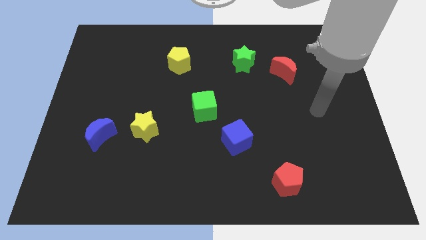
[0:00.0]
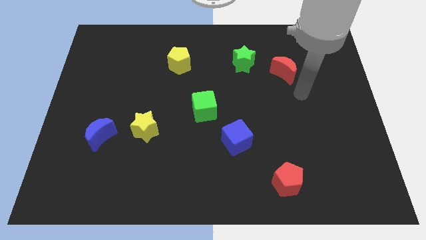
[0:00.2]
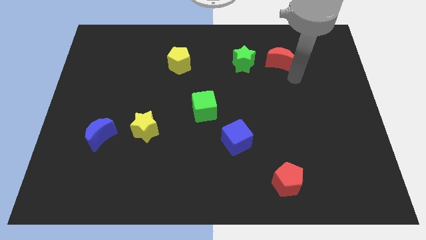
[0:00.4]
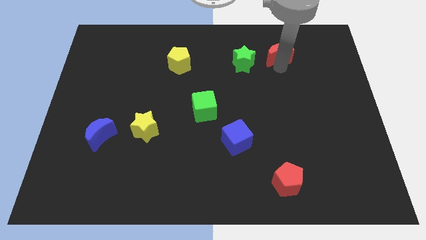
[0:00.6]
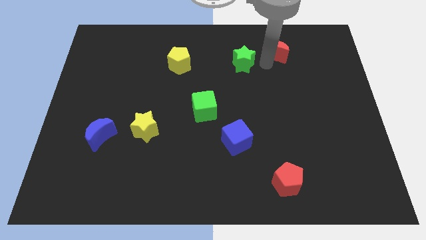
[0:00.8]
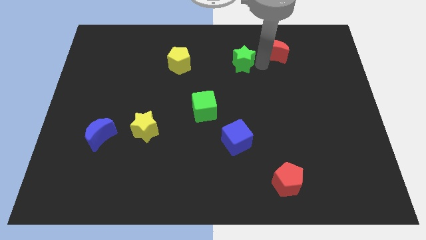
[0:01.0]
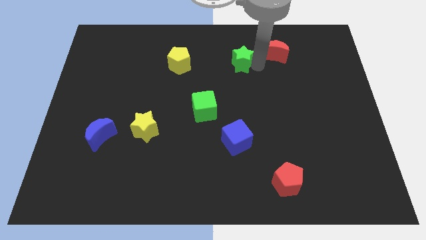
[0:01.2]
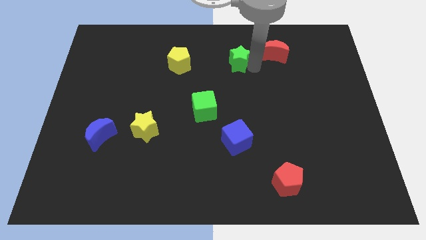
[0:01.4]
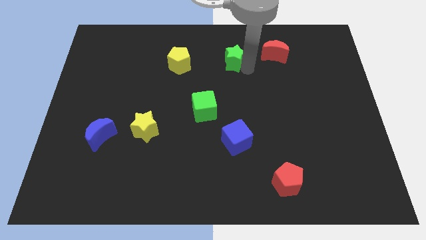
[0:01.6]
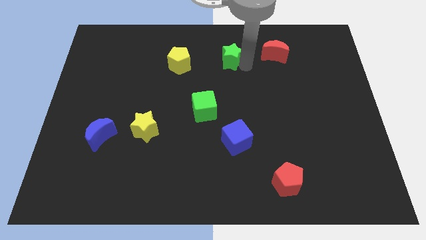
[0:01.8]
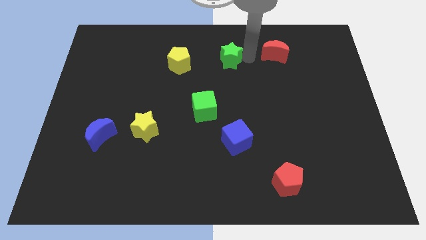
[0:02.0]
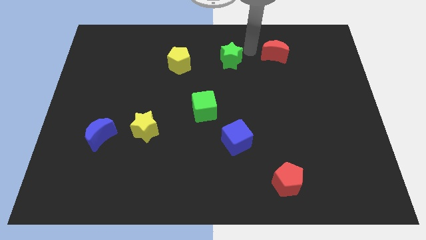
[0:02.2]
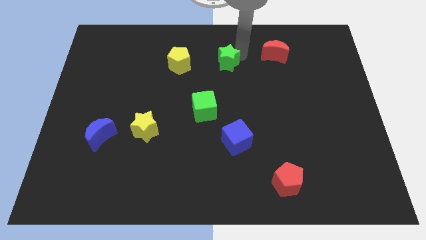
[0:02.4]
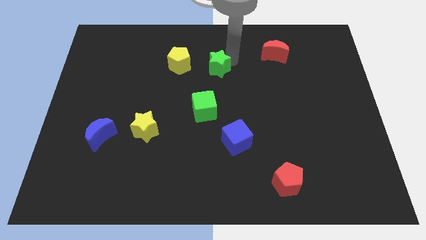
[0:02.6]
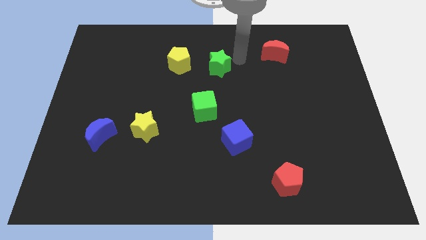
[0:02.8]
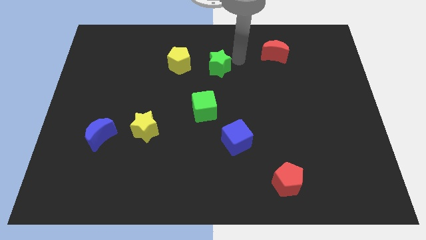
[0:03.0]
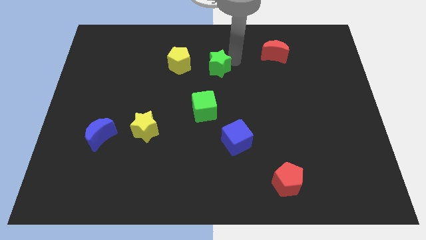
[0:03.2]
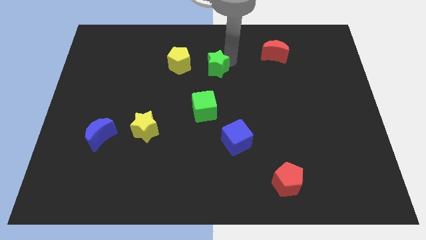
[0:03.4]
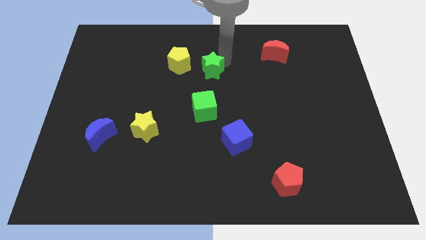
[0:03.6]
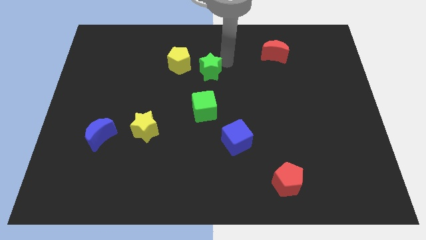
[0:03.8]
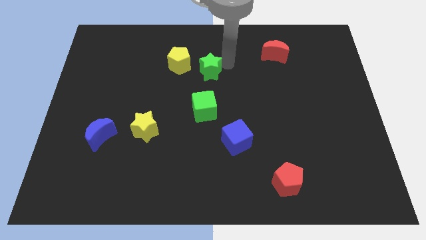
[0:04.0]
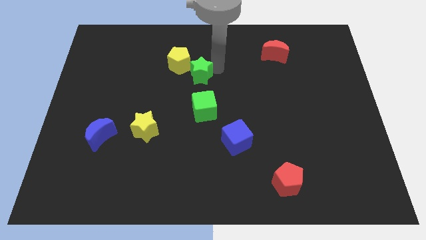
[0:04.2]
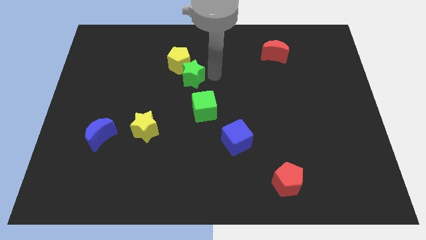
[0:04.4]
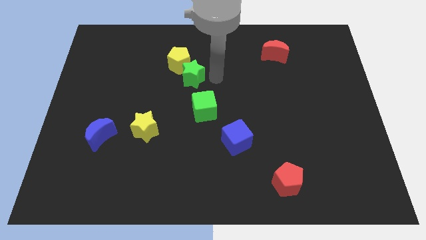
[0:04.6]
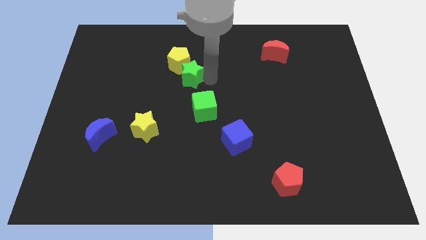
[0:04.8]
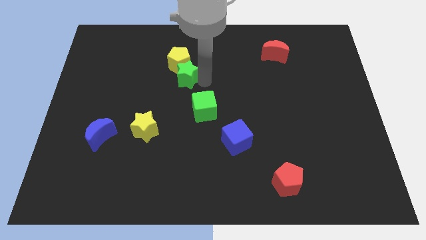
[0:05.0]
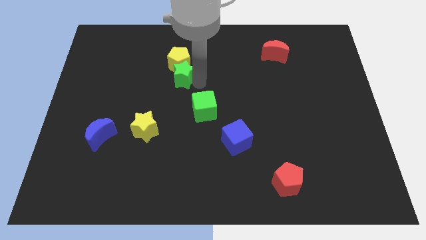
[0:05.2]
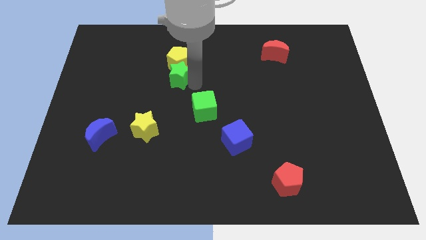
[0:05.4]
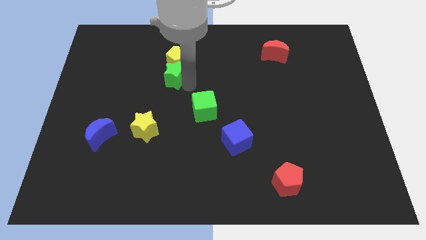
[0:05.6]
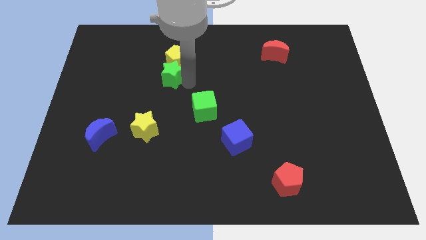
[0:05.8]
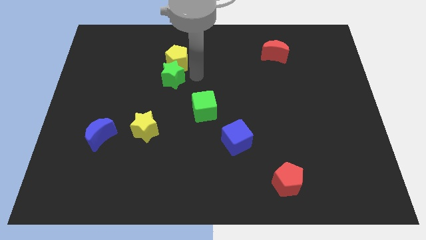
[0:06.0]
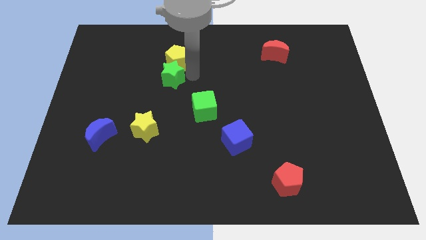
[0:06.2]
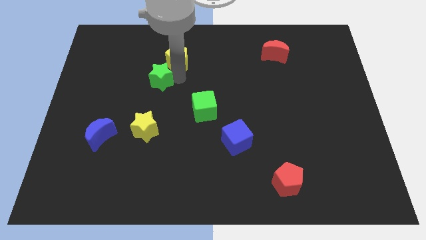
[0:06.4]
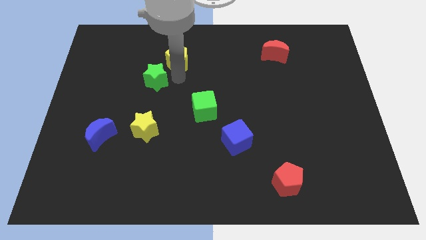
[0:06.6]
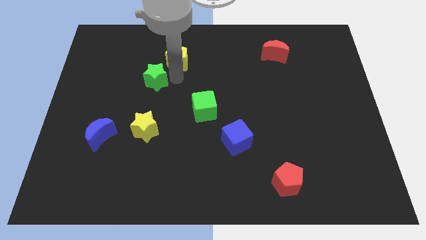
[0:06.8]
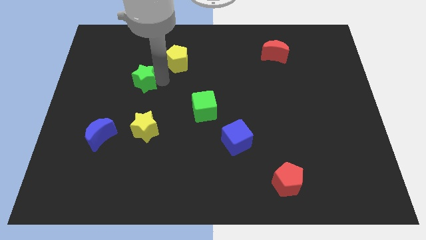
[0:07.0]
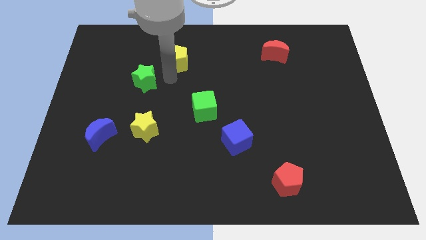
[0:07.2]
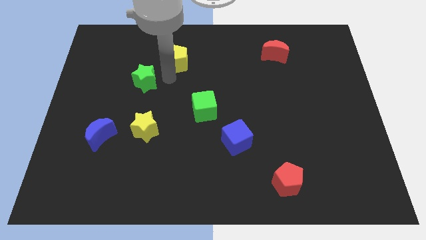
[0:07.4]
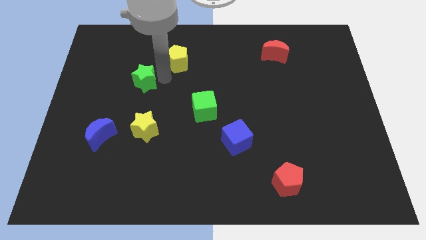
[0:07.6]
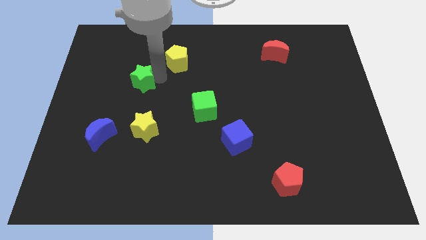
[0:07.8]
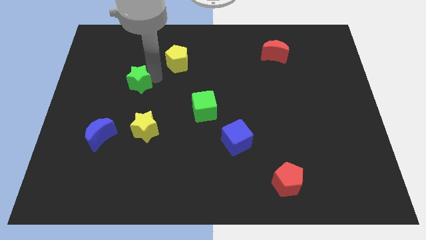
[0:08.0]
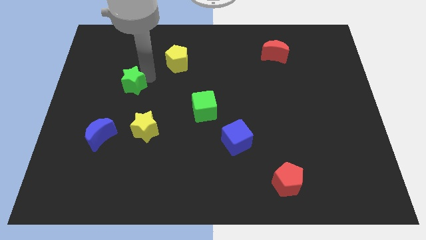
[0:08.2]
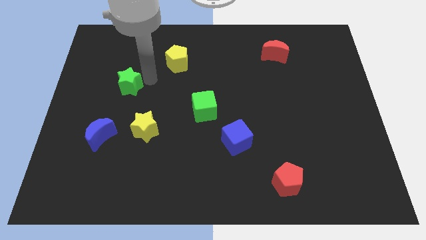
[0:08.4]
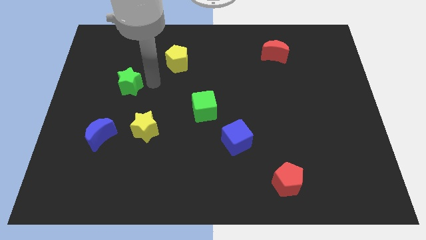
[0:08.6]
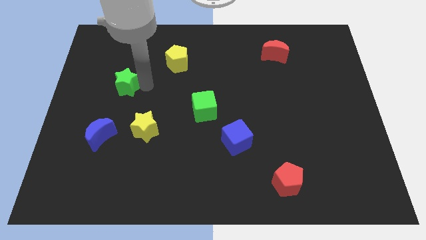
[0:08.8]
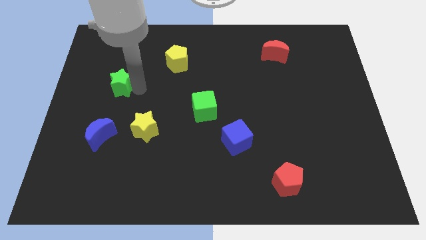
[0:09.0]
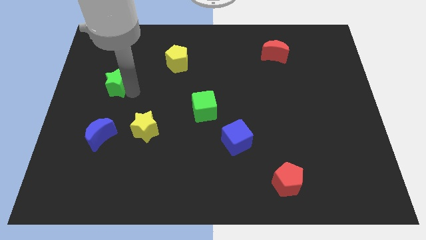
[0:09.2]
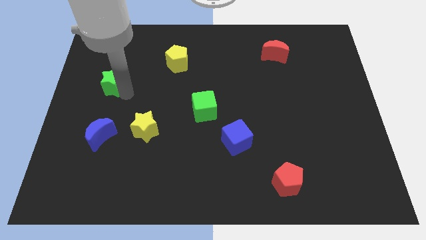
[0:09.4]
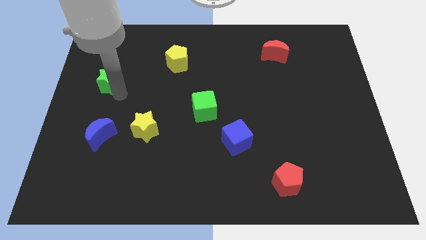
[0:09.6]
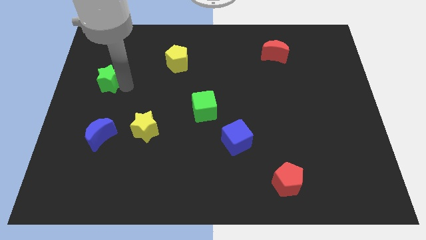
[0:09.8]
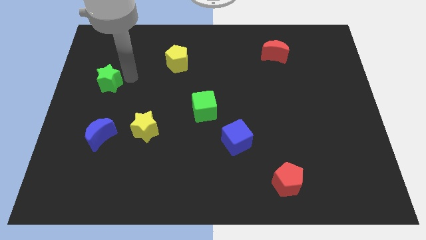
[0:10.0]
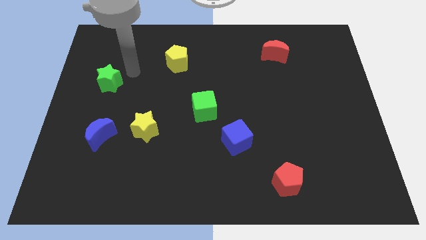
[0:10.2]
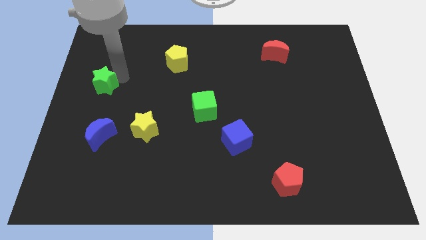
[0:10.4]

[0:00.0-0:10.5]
push the green star to the left side

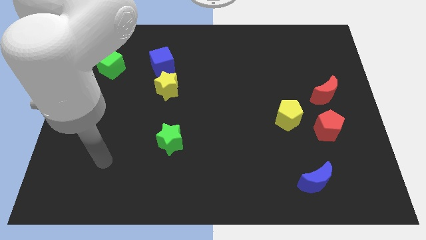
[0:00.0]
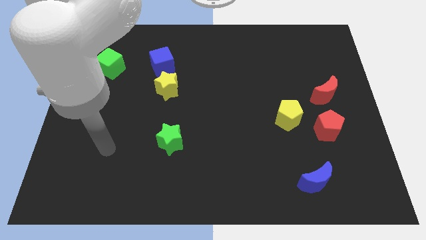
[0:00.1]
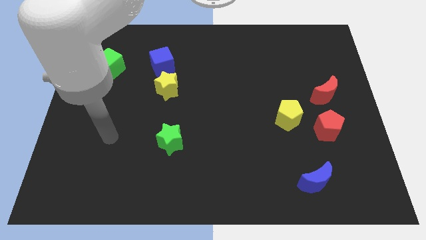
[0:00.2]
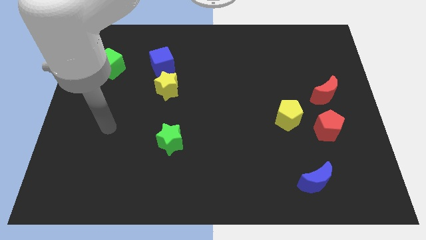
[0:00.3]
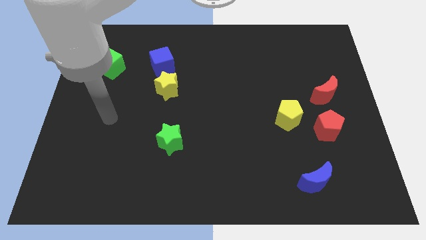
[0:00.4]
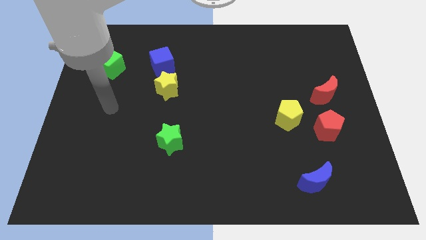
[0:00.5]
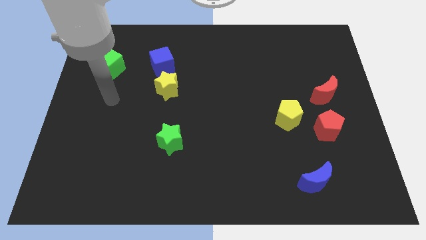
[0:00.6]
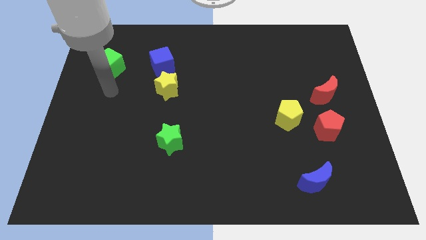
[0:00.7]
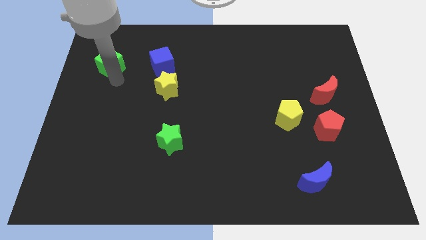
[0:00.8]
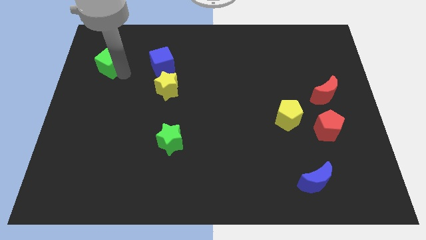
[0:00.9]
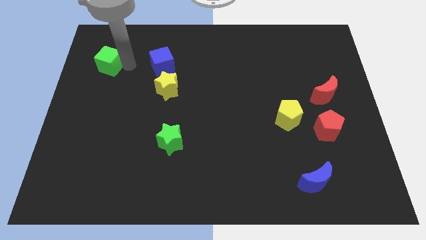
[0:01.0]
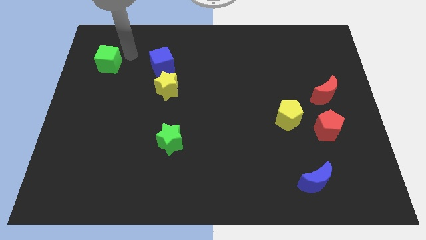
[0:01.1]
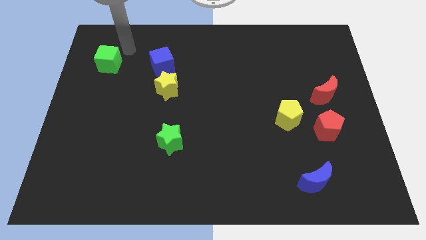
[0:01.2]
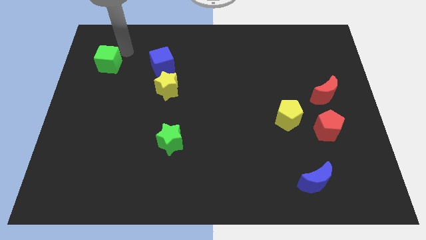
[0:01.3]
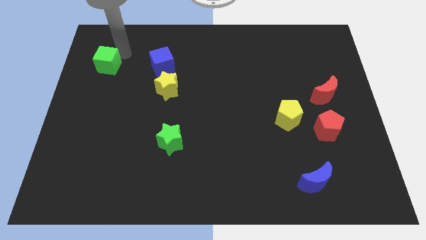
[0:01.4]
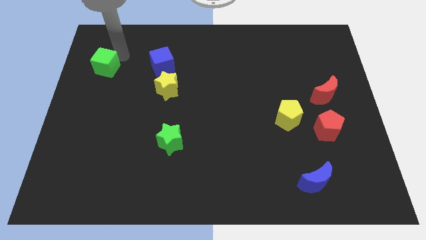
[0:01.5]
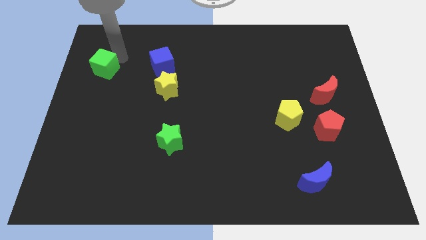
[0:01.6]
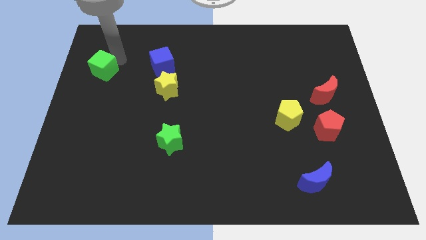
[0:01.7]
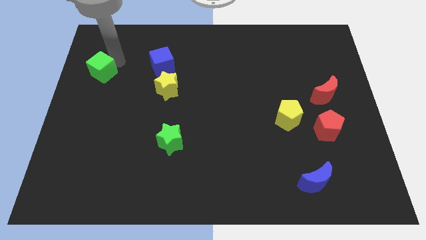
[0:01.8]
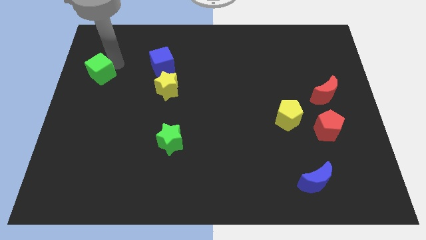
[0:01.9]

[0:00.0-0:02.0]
push the green cube to the left side of the board
